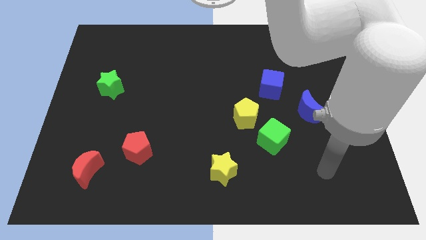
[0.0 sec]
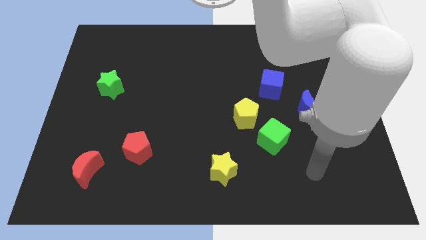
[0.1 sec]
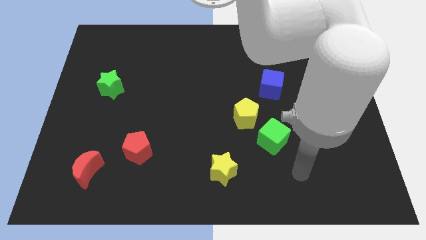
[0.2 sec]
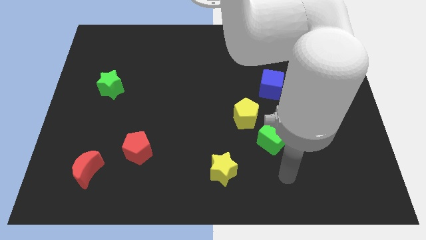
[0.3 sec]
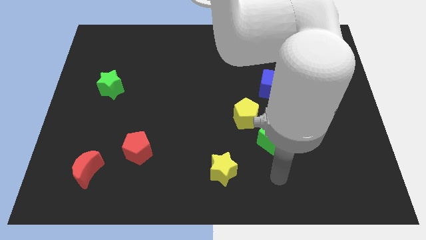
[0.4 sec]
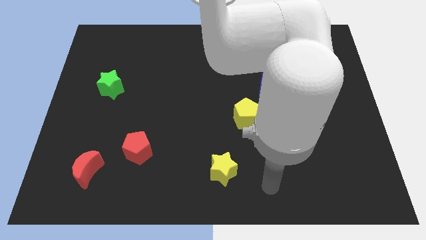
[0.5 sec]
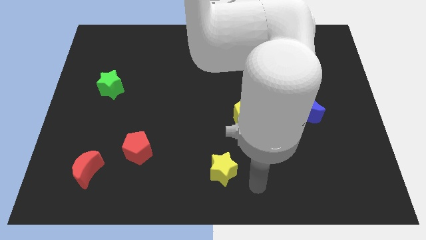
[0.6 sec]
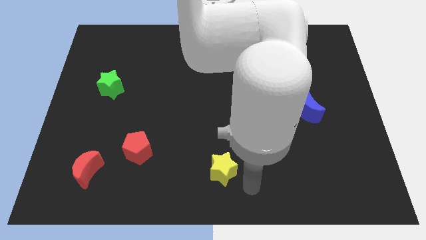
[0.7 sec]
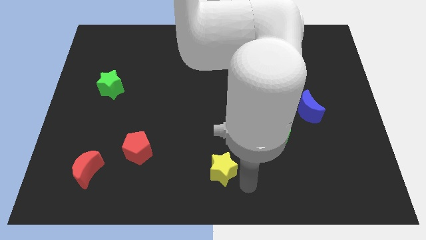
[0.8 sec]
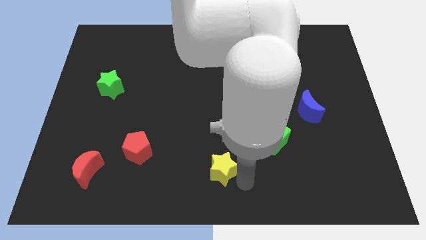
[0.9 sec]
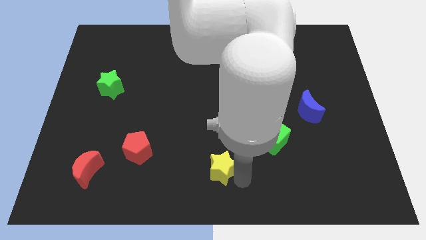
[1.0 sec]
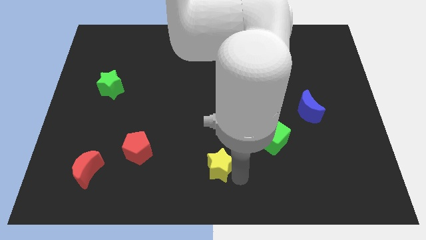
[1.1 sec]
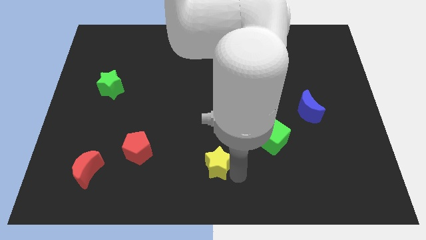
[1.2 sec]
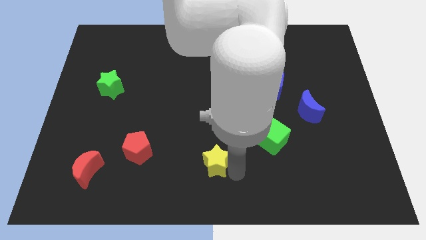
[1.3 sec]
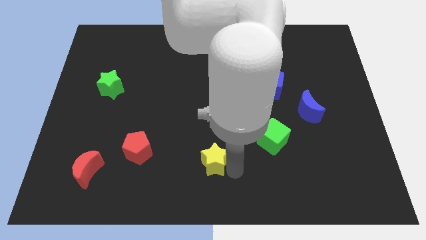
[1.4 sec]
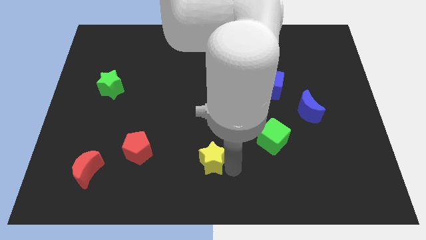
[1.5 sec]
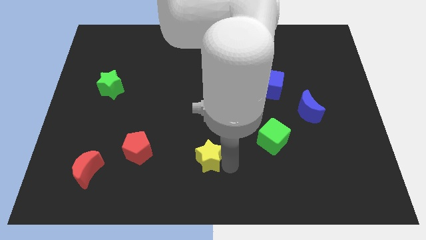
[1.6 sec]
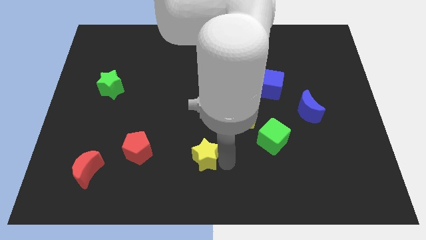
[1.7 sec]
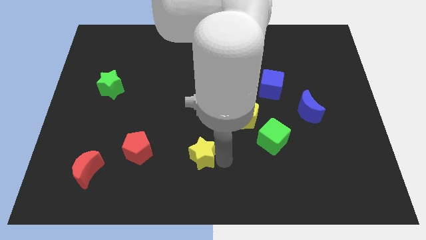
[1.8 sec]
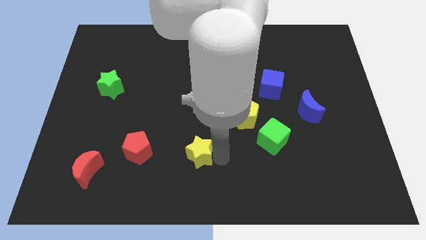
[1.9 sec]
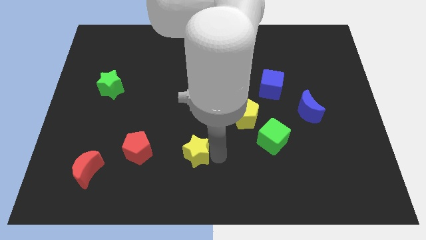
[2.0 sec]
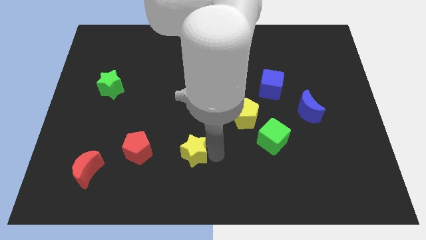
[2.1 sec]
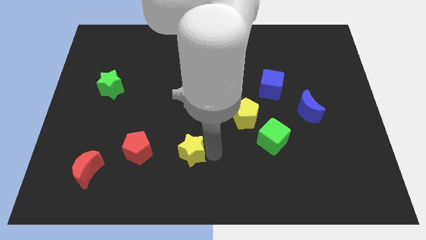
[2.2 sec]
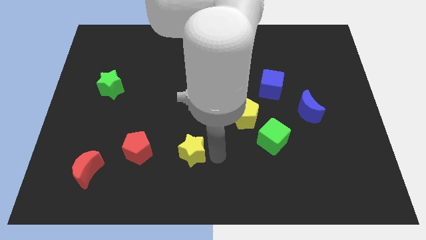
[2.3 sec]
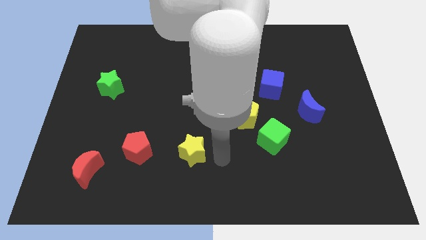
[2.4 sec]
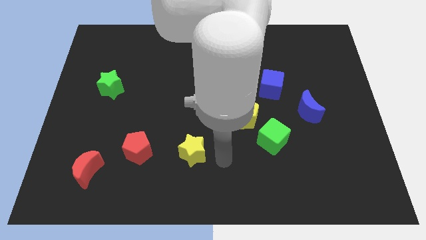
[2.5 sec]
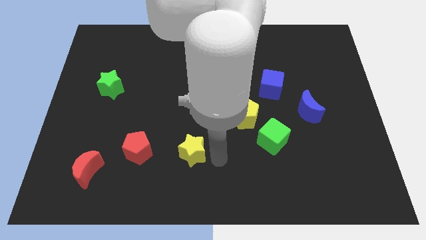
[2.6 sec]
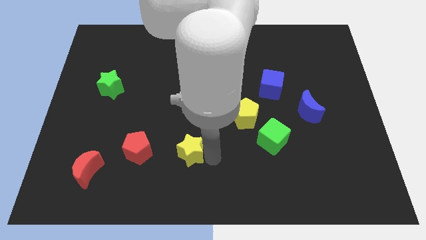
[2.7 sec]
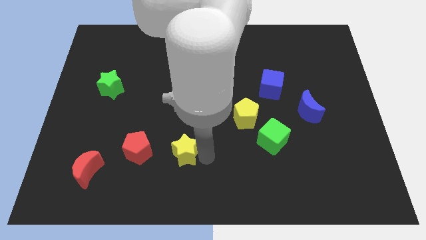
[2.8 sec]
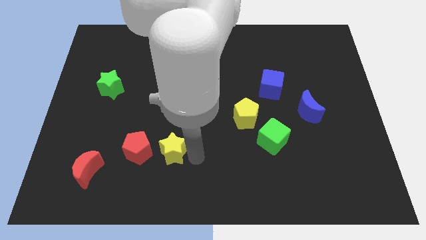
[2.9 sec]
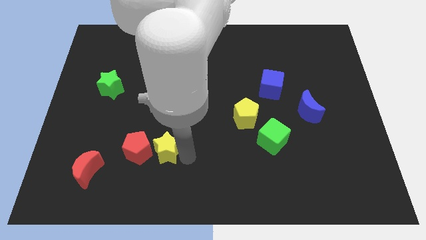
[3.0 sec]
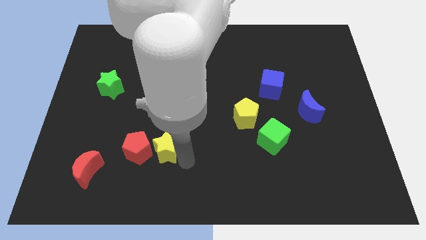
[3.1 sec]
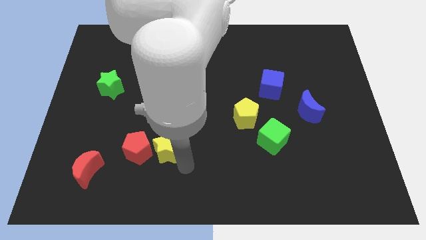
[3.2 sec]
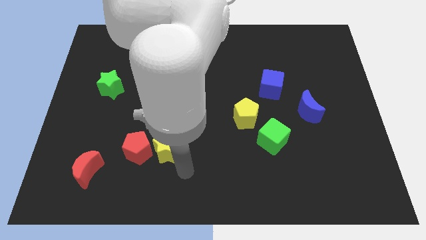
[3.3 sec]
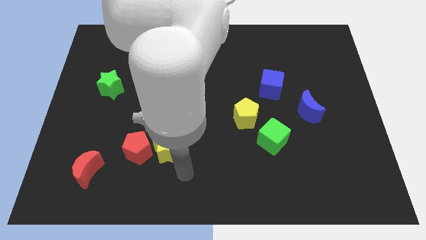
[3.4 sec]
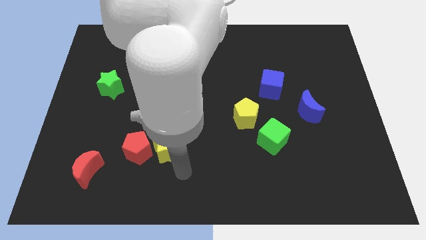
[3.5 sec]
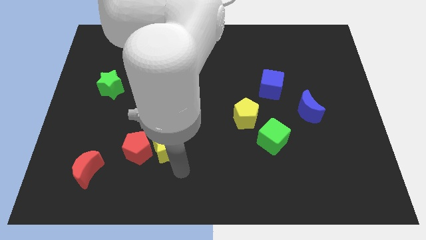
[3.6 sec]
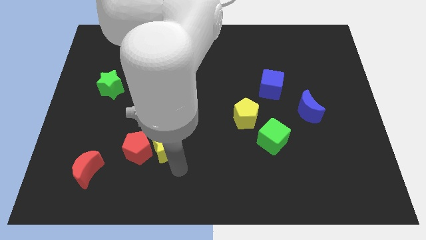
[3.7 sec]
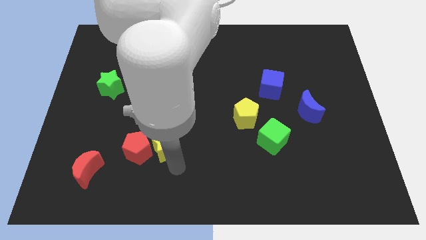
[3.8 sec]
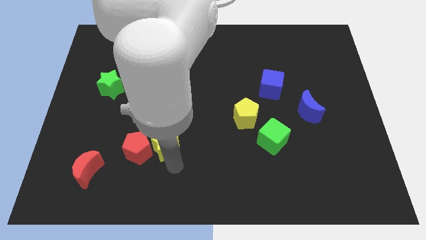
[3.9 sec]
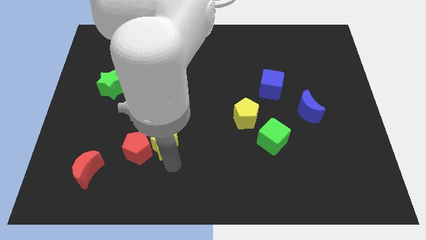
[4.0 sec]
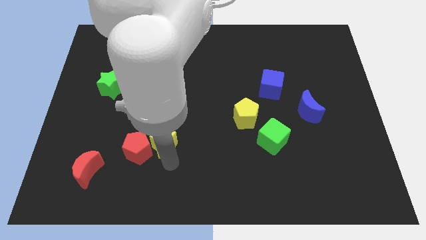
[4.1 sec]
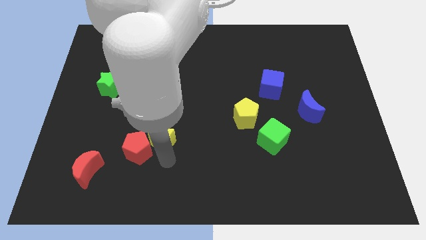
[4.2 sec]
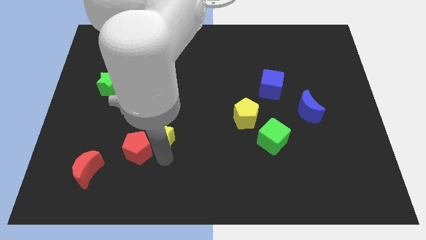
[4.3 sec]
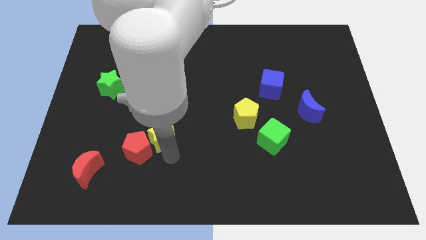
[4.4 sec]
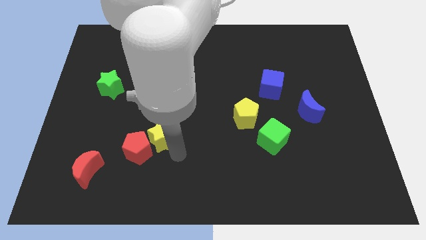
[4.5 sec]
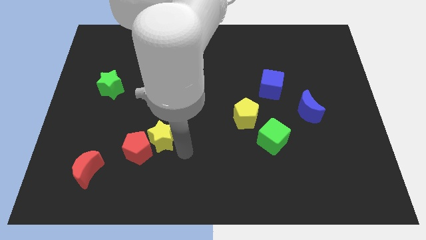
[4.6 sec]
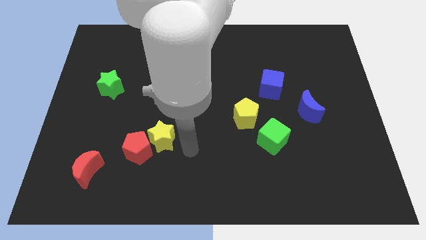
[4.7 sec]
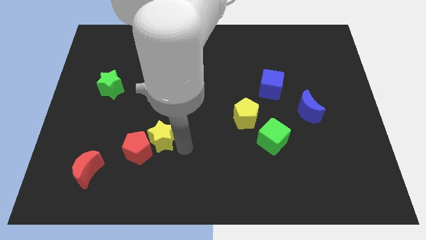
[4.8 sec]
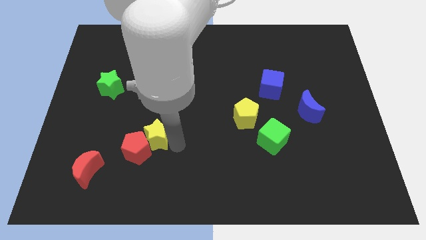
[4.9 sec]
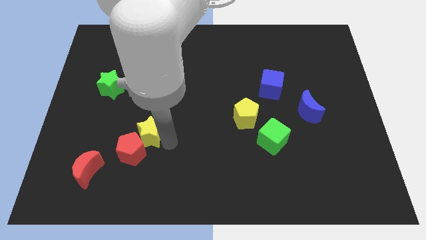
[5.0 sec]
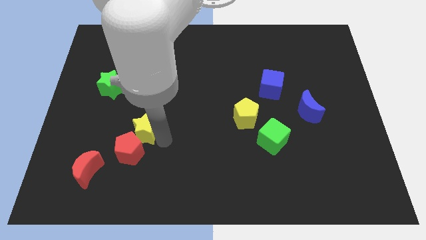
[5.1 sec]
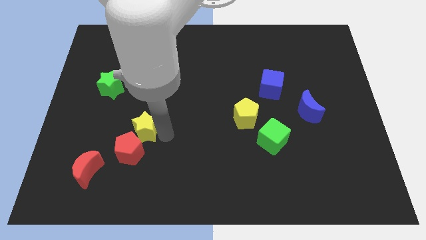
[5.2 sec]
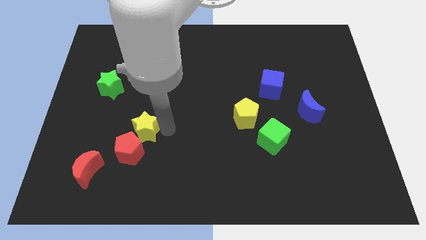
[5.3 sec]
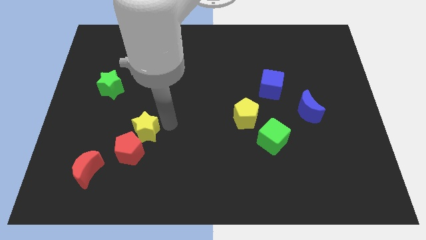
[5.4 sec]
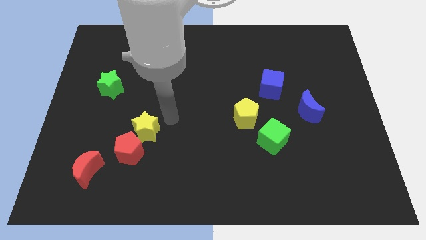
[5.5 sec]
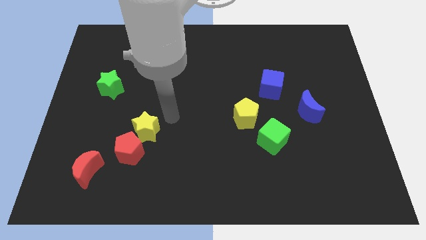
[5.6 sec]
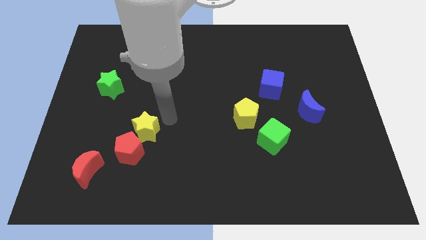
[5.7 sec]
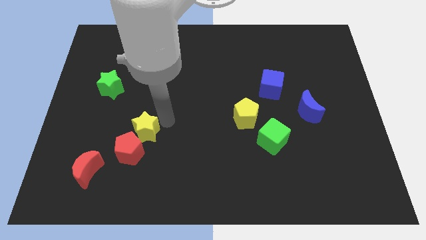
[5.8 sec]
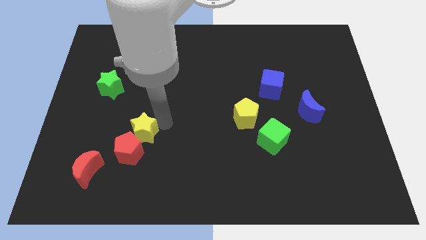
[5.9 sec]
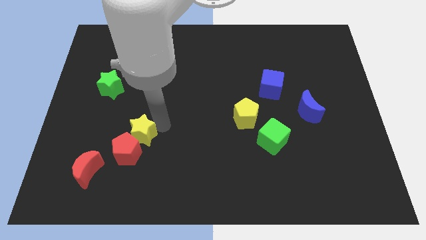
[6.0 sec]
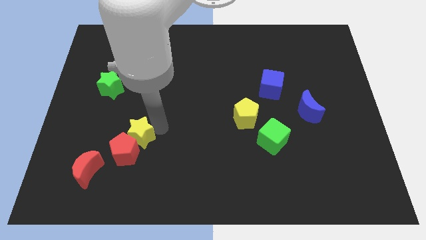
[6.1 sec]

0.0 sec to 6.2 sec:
push the yellow star to the top right side of the red moon

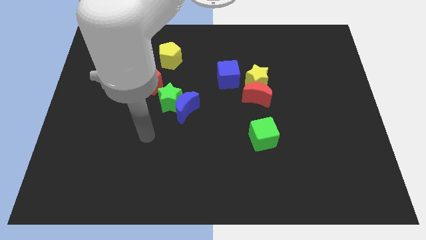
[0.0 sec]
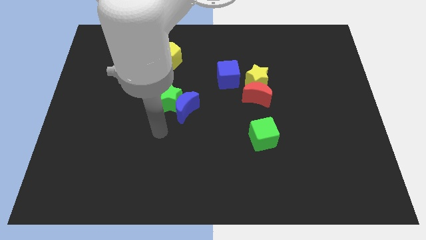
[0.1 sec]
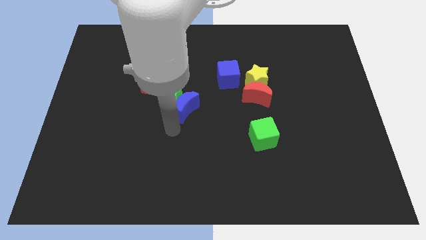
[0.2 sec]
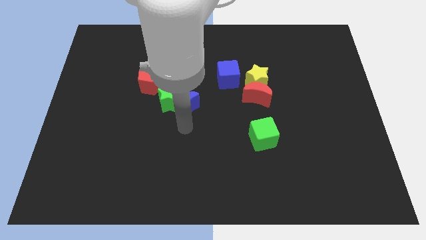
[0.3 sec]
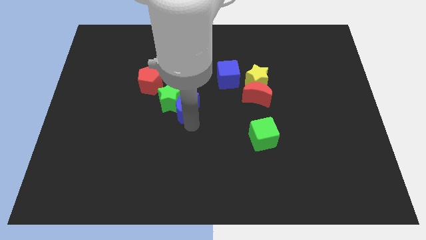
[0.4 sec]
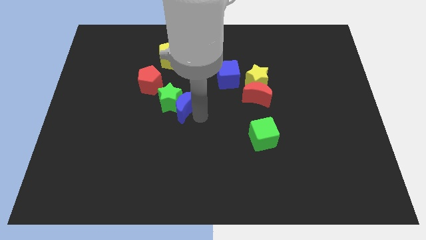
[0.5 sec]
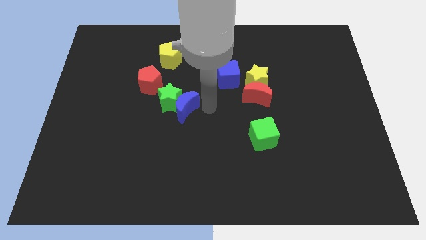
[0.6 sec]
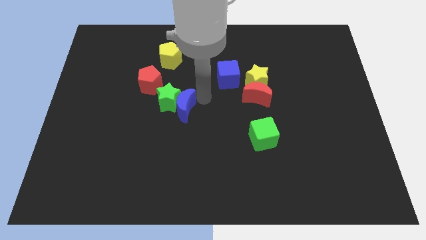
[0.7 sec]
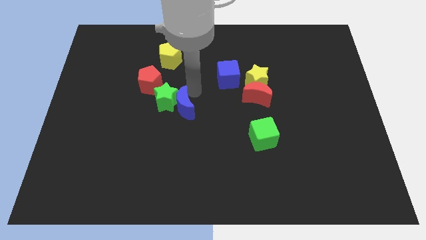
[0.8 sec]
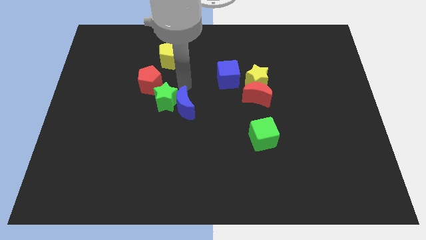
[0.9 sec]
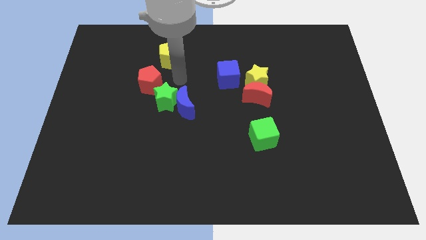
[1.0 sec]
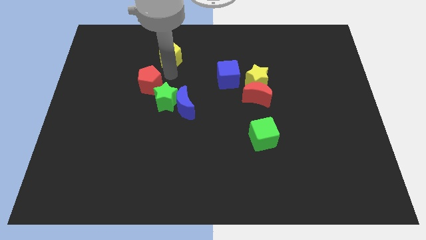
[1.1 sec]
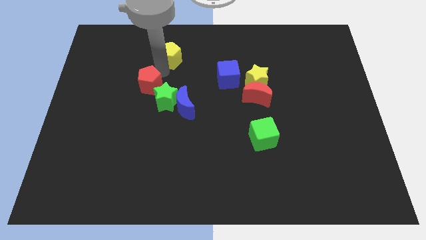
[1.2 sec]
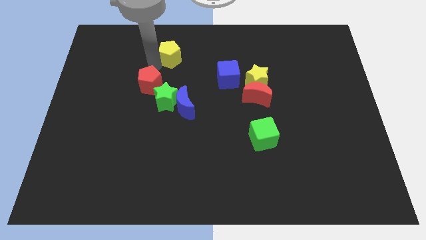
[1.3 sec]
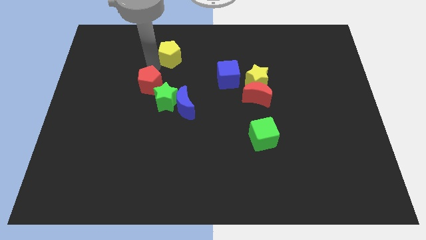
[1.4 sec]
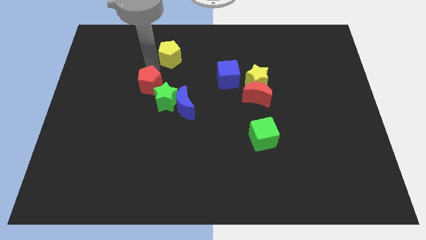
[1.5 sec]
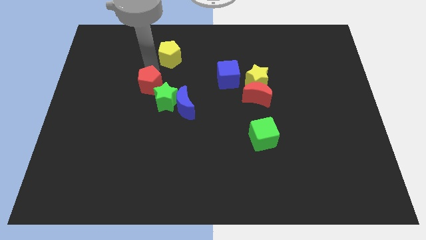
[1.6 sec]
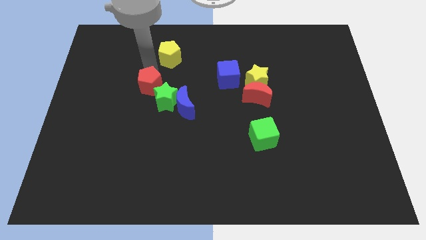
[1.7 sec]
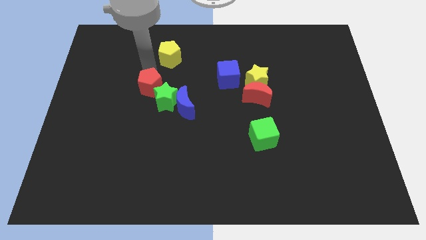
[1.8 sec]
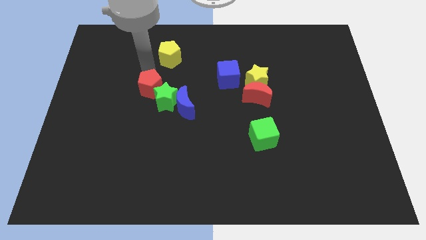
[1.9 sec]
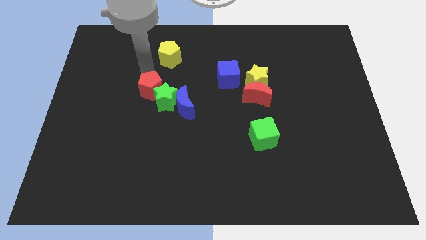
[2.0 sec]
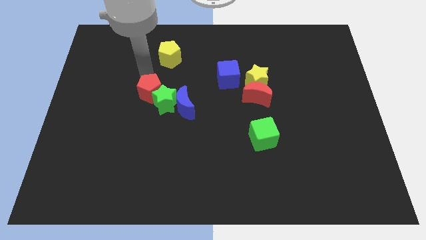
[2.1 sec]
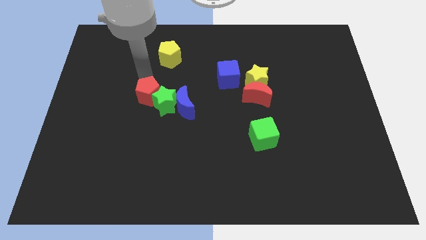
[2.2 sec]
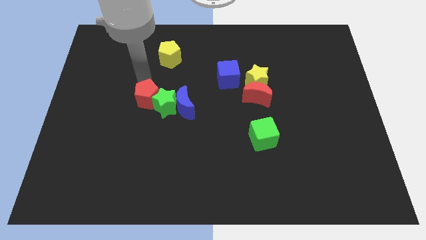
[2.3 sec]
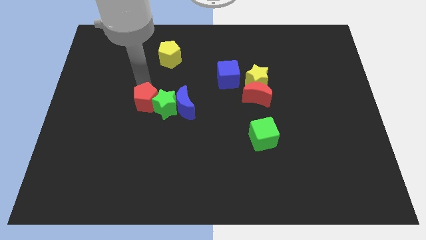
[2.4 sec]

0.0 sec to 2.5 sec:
push the red pentagon to the bottom left of the green star
